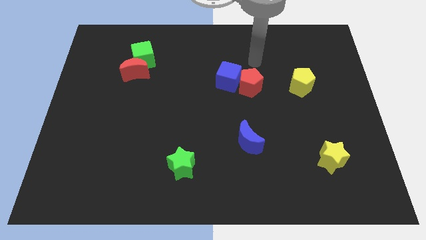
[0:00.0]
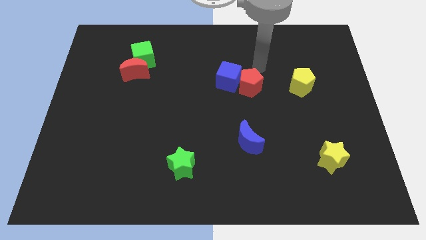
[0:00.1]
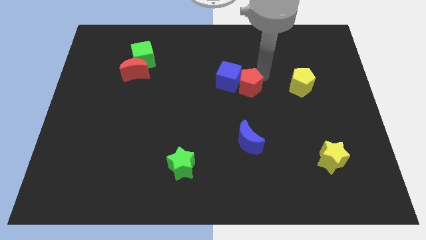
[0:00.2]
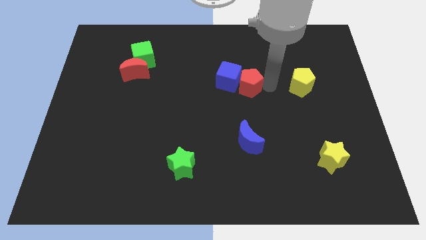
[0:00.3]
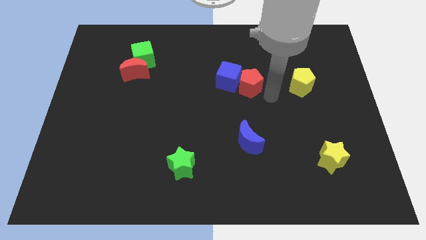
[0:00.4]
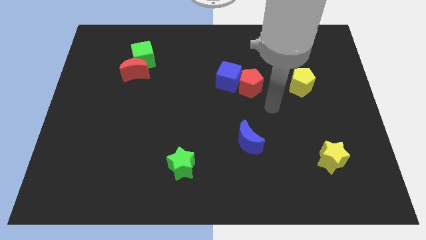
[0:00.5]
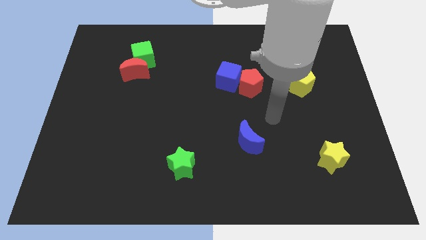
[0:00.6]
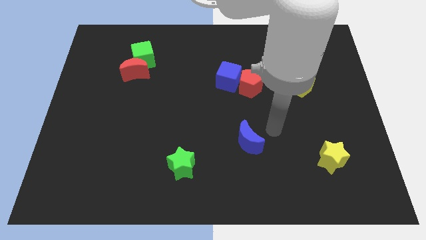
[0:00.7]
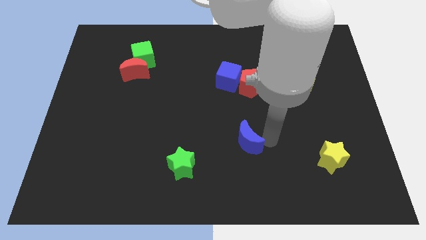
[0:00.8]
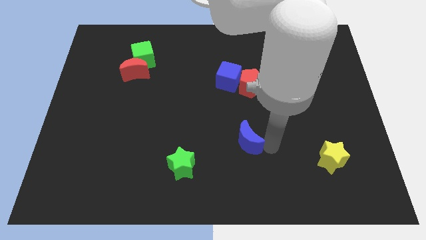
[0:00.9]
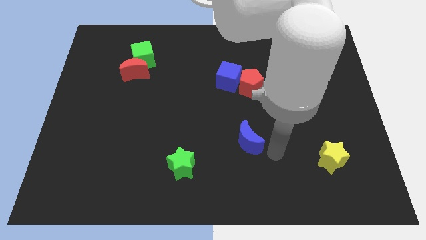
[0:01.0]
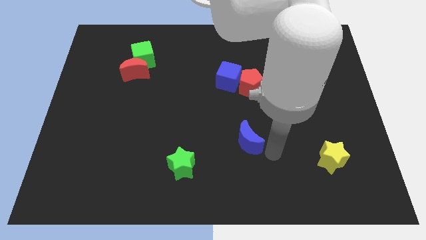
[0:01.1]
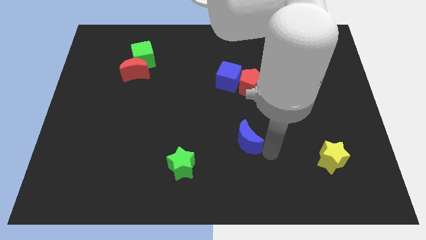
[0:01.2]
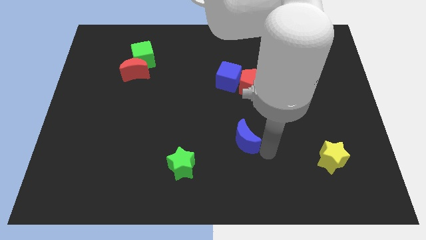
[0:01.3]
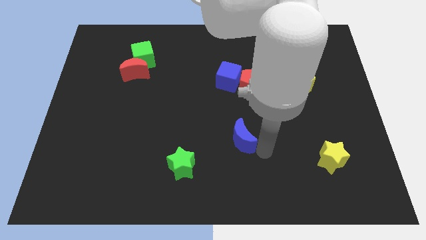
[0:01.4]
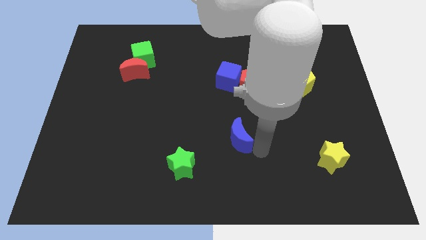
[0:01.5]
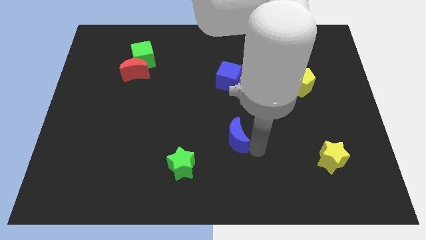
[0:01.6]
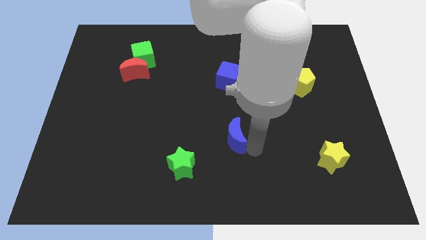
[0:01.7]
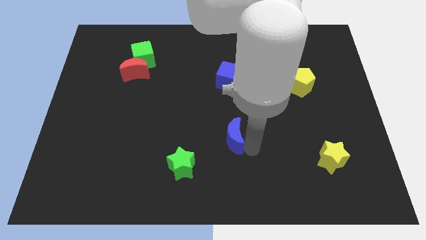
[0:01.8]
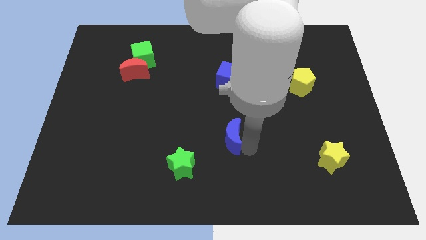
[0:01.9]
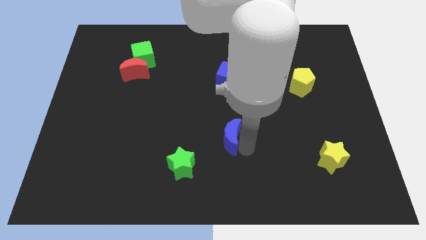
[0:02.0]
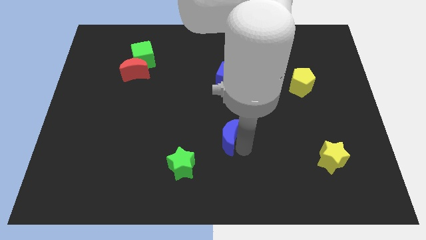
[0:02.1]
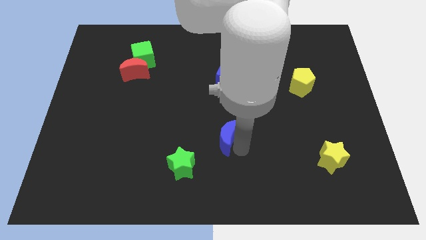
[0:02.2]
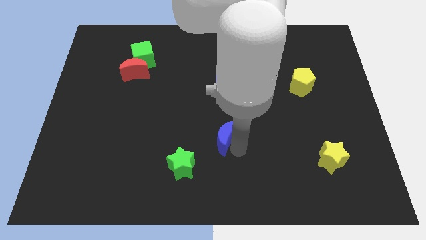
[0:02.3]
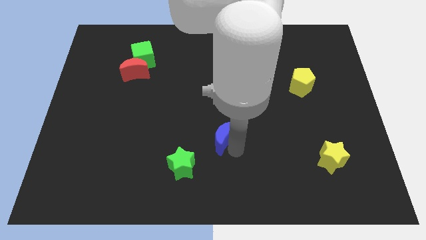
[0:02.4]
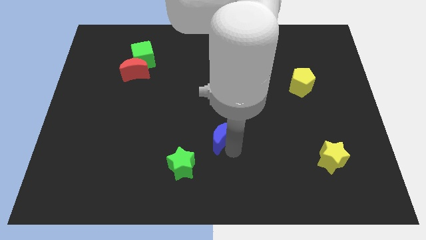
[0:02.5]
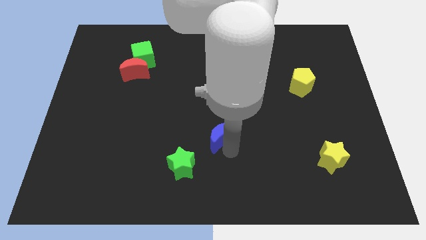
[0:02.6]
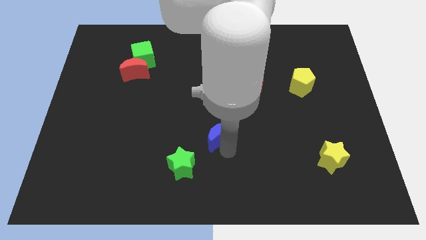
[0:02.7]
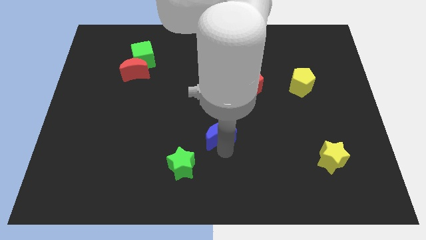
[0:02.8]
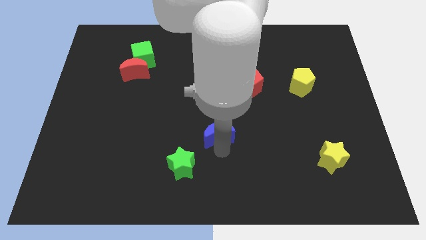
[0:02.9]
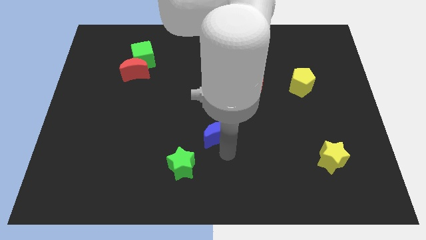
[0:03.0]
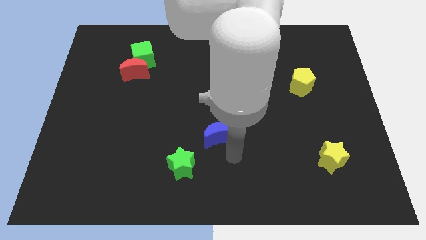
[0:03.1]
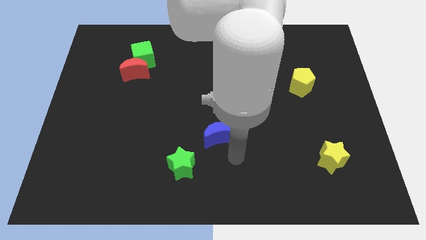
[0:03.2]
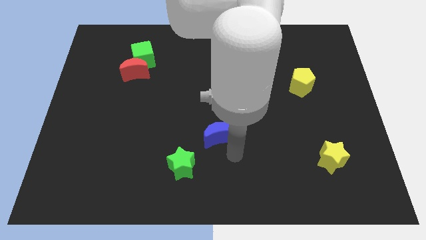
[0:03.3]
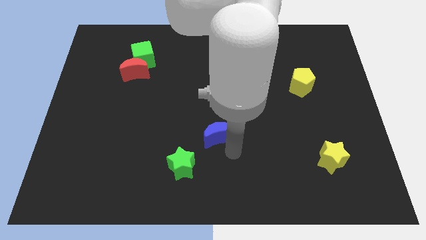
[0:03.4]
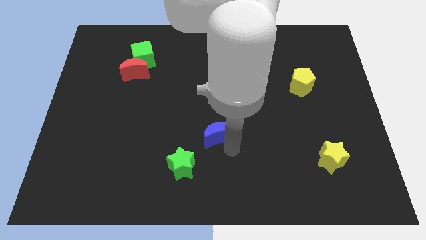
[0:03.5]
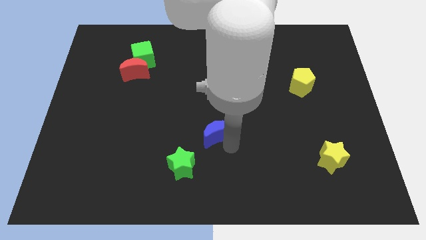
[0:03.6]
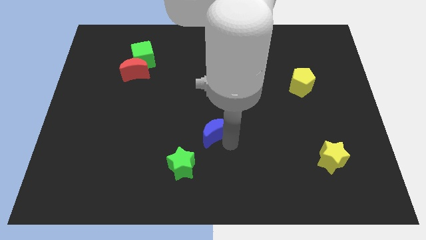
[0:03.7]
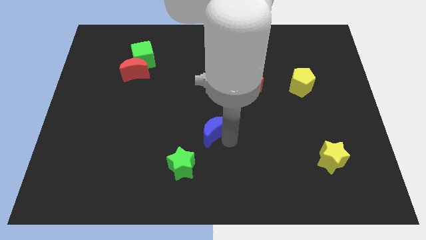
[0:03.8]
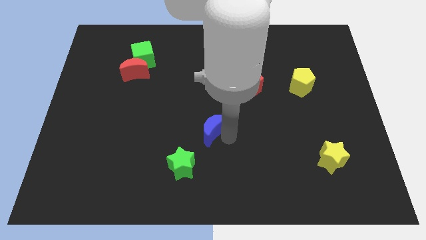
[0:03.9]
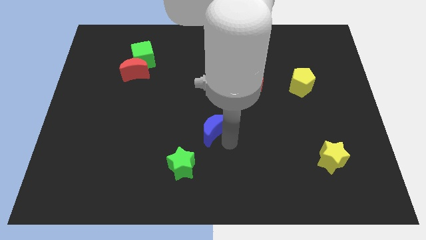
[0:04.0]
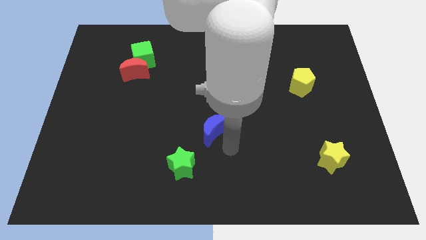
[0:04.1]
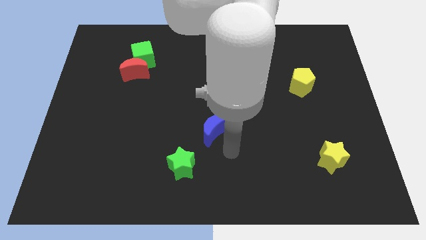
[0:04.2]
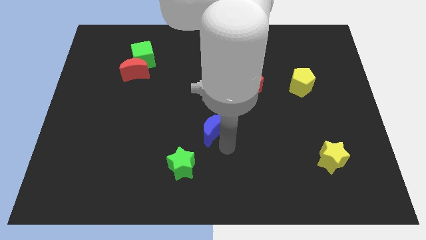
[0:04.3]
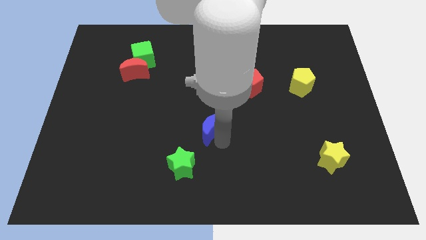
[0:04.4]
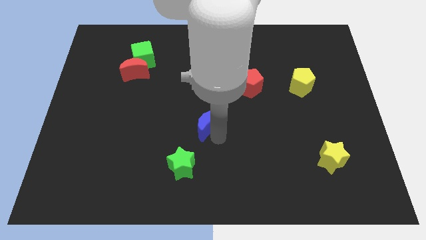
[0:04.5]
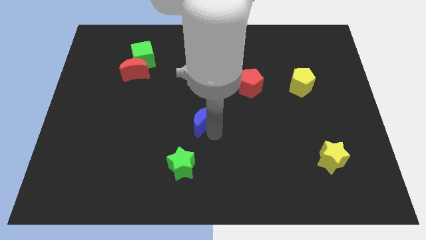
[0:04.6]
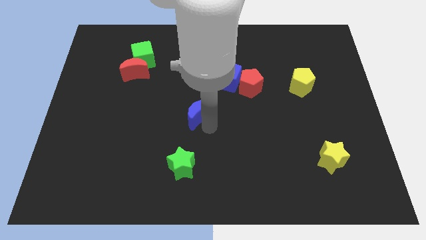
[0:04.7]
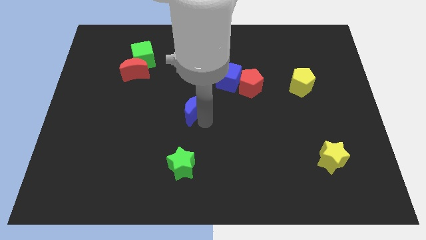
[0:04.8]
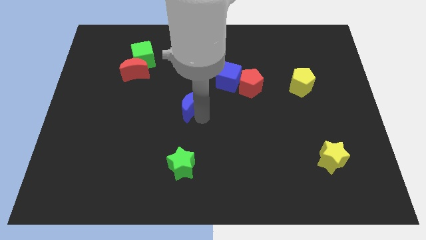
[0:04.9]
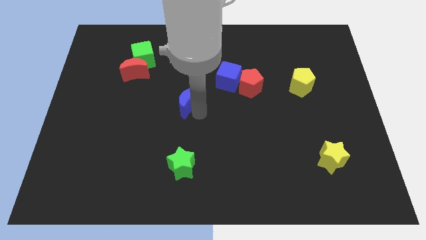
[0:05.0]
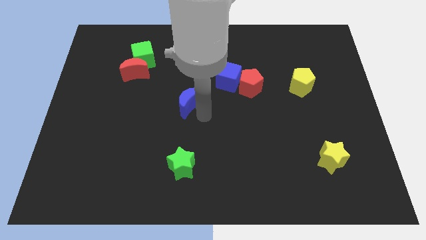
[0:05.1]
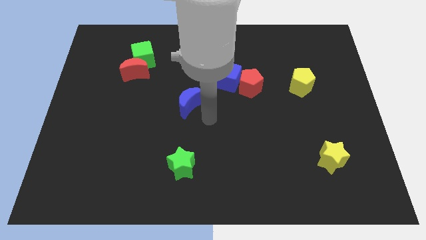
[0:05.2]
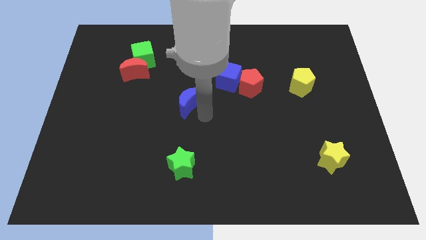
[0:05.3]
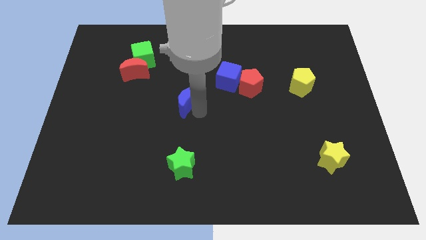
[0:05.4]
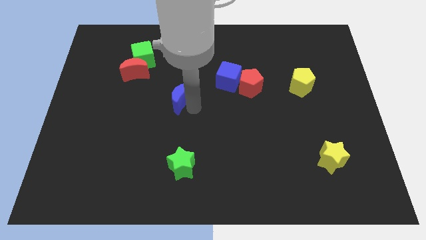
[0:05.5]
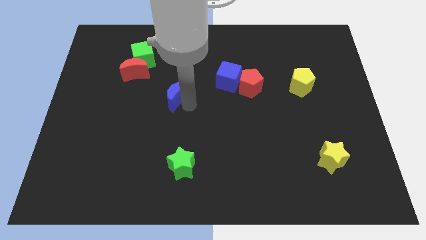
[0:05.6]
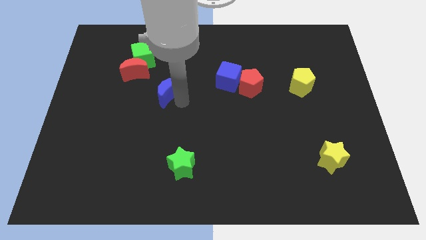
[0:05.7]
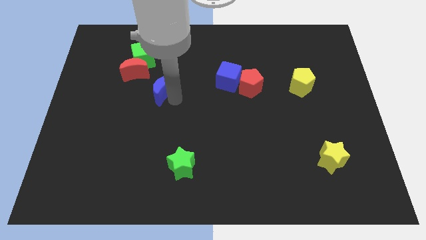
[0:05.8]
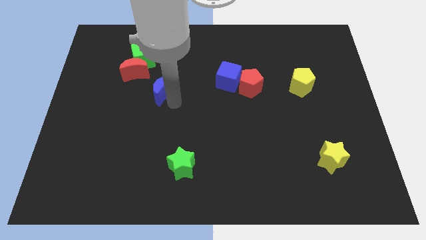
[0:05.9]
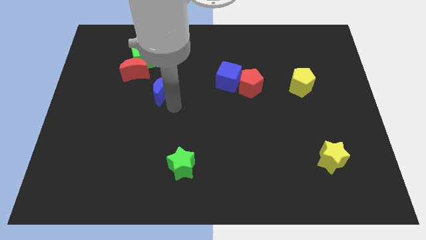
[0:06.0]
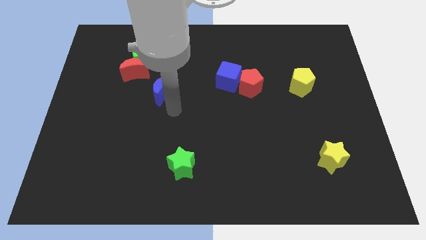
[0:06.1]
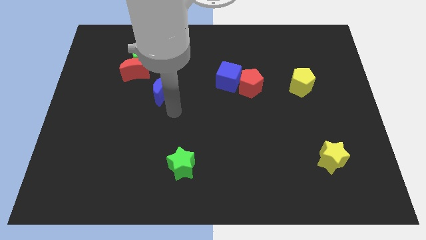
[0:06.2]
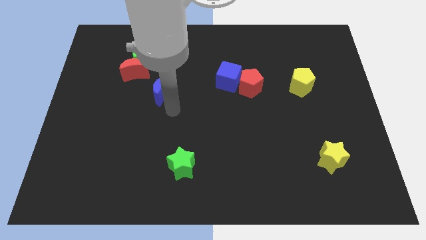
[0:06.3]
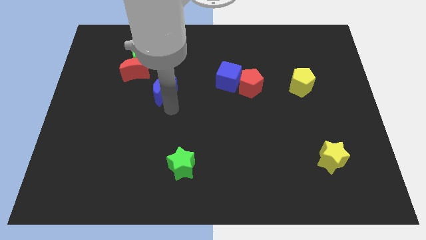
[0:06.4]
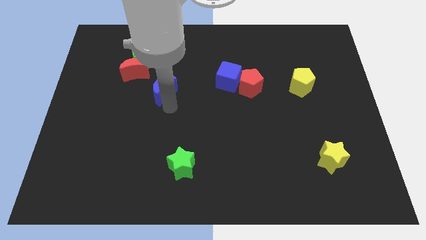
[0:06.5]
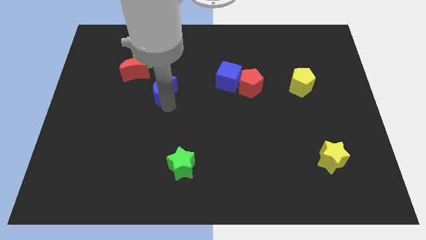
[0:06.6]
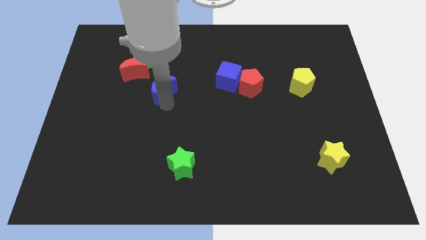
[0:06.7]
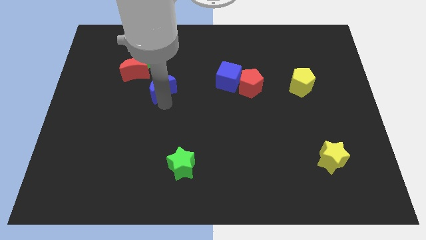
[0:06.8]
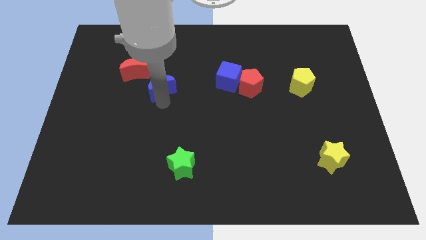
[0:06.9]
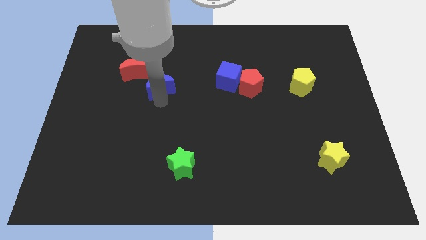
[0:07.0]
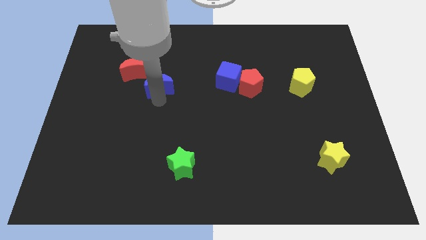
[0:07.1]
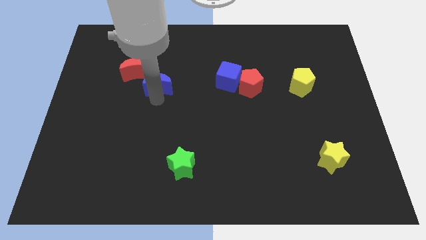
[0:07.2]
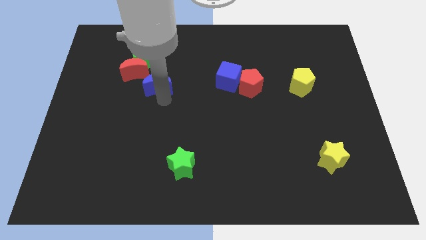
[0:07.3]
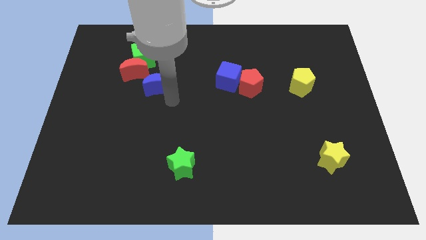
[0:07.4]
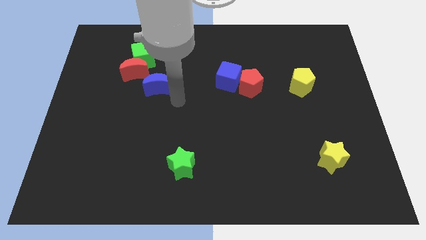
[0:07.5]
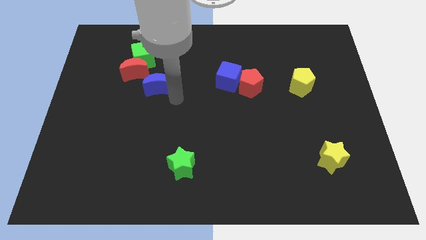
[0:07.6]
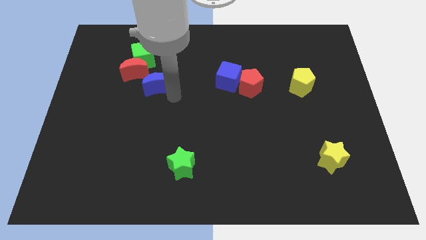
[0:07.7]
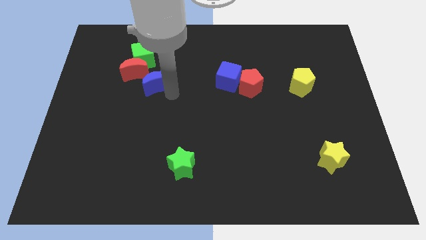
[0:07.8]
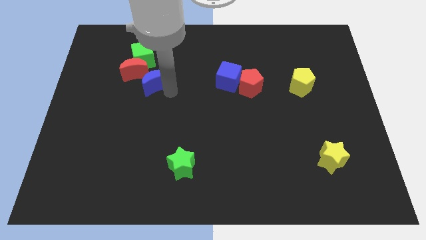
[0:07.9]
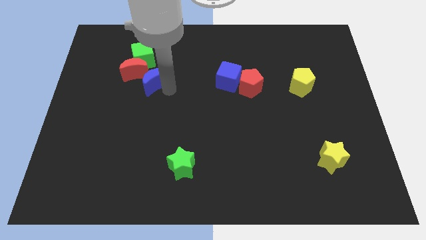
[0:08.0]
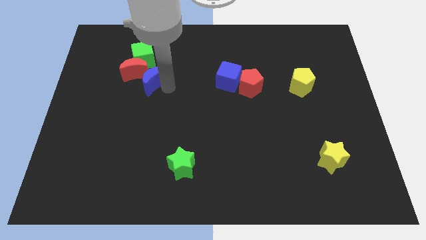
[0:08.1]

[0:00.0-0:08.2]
put the blue moon towards the red moon
